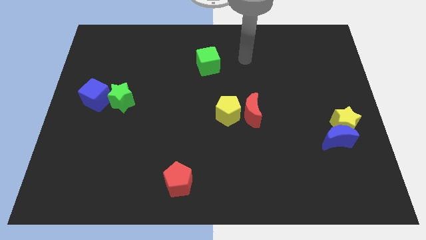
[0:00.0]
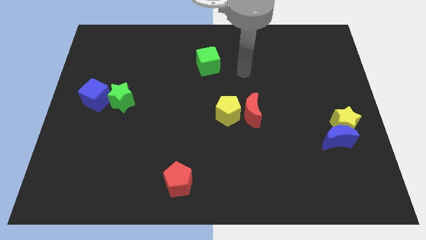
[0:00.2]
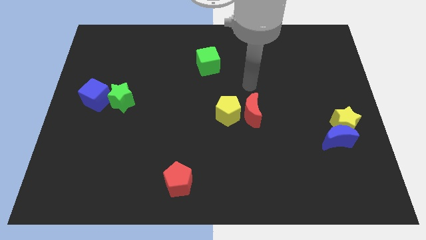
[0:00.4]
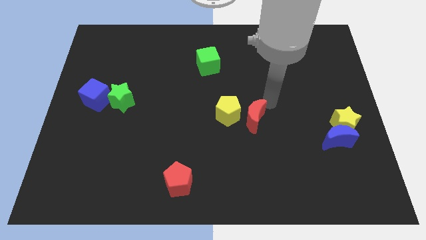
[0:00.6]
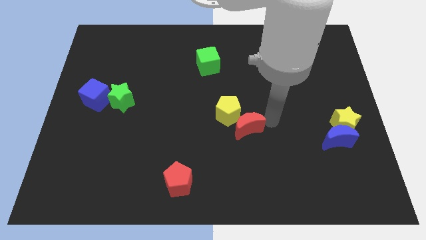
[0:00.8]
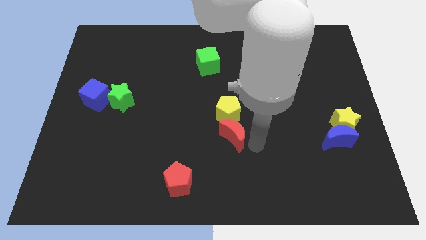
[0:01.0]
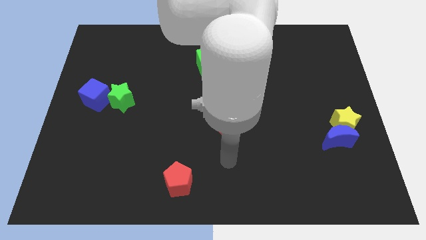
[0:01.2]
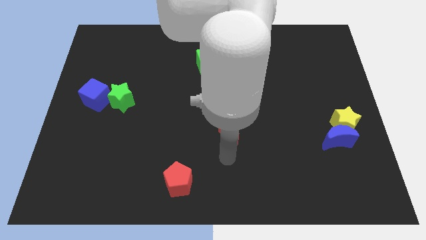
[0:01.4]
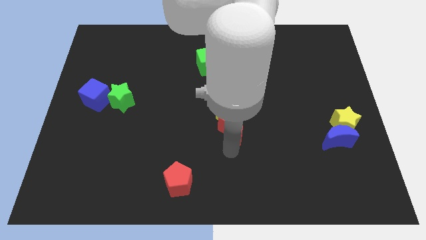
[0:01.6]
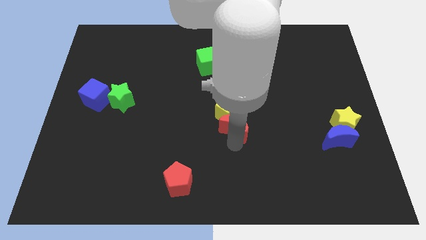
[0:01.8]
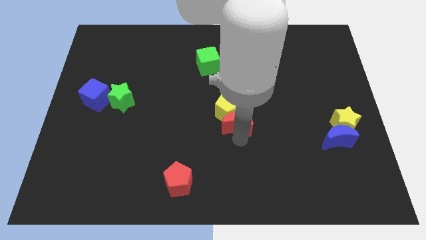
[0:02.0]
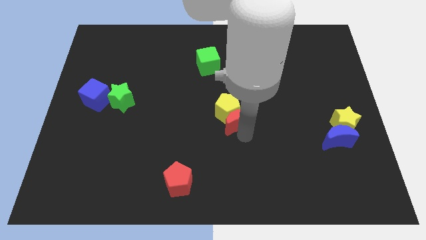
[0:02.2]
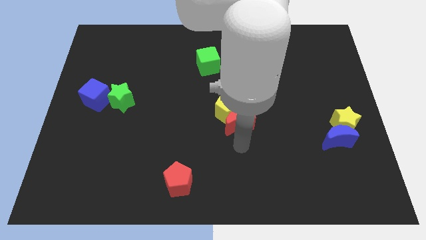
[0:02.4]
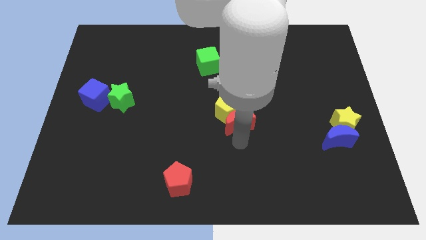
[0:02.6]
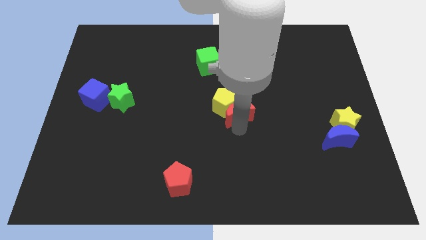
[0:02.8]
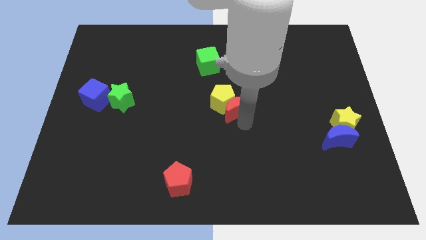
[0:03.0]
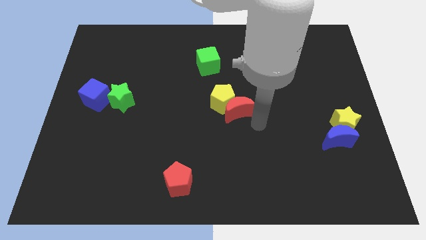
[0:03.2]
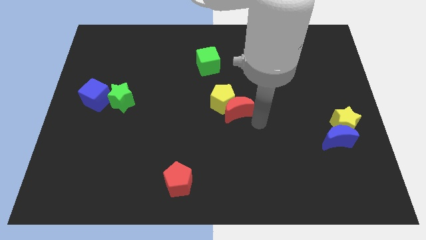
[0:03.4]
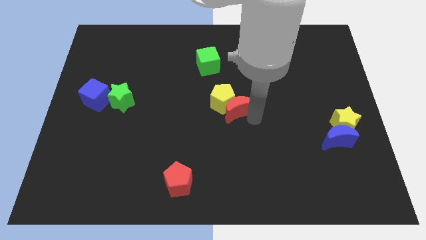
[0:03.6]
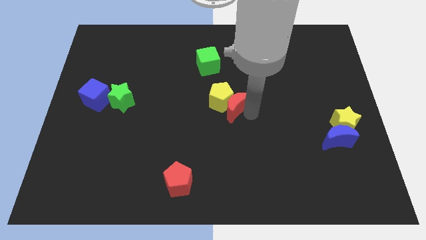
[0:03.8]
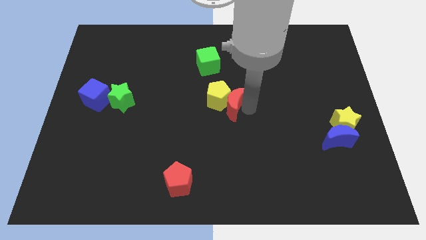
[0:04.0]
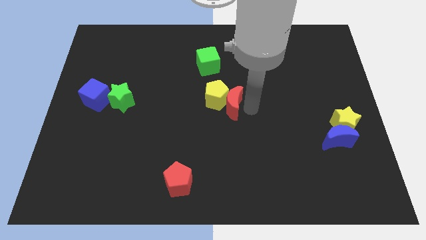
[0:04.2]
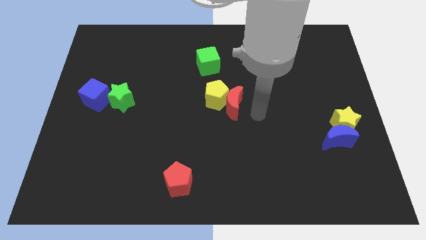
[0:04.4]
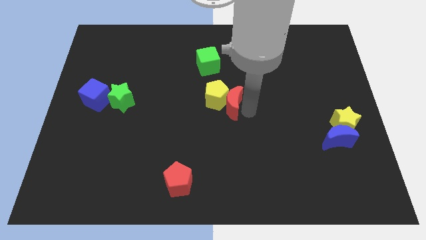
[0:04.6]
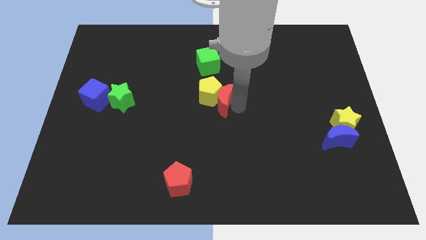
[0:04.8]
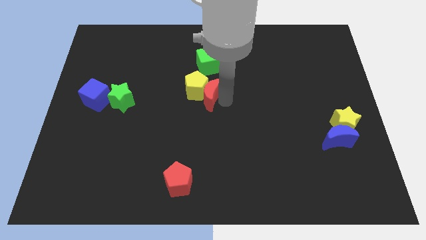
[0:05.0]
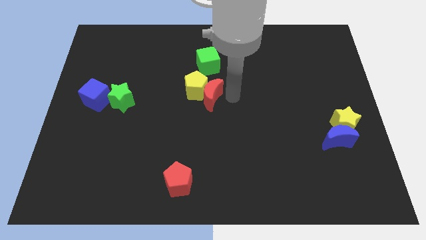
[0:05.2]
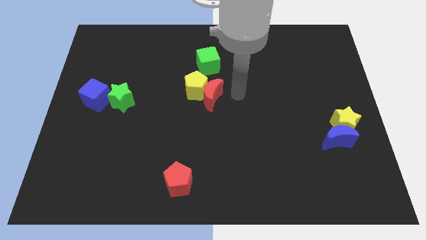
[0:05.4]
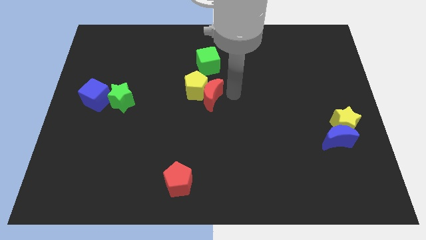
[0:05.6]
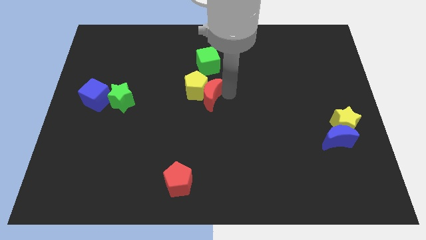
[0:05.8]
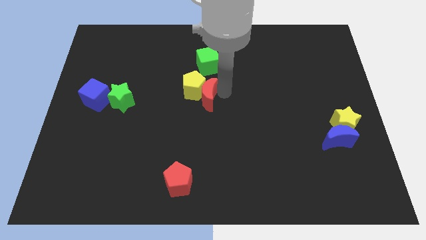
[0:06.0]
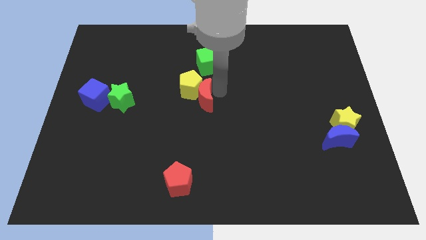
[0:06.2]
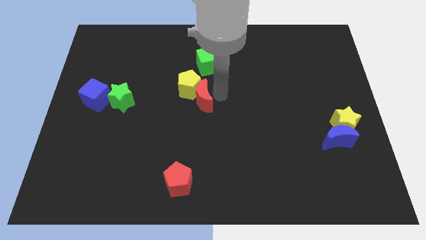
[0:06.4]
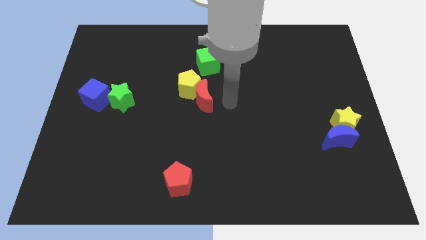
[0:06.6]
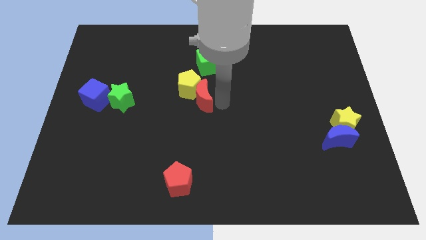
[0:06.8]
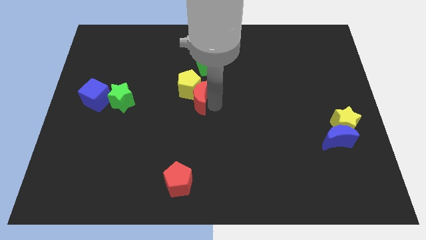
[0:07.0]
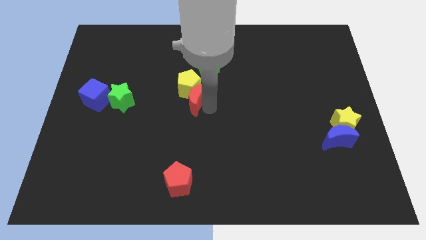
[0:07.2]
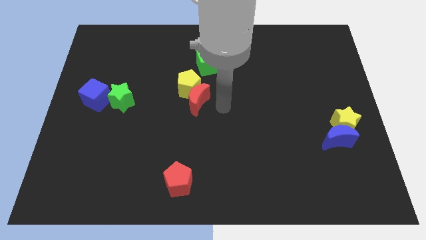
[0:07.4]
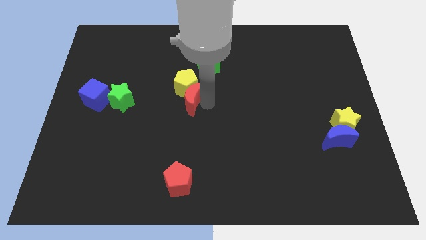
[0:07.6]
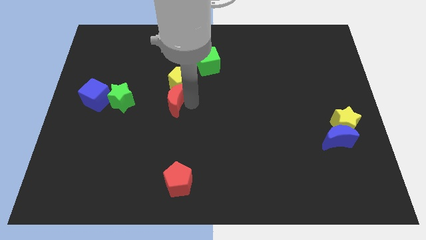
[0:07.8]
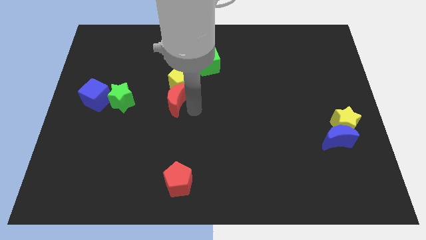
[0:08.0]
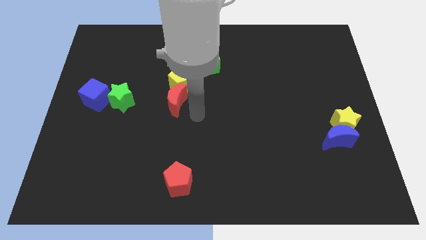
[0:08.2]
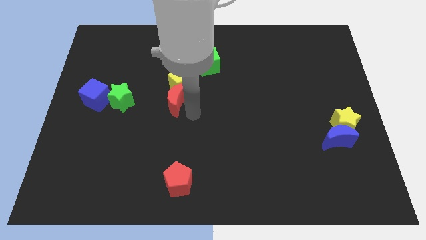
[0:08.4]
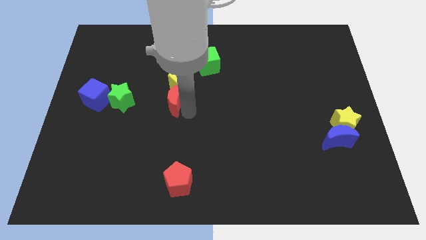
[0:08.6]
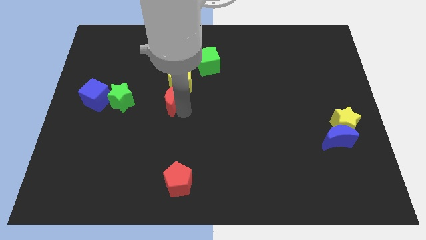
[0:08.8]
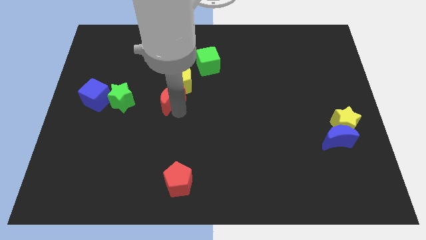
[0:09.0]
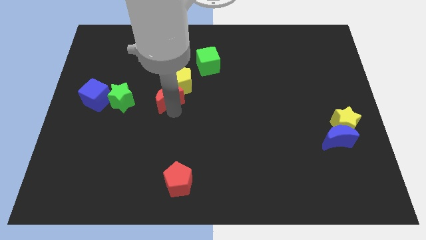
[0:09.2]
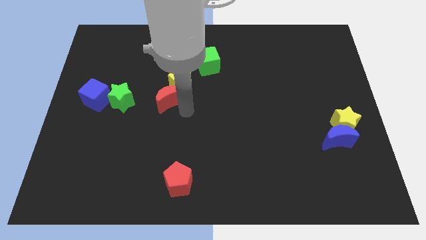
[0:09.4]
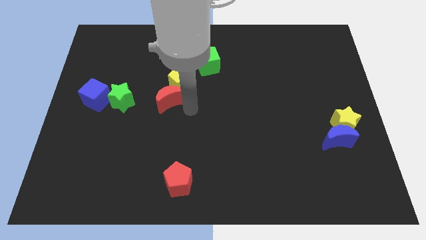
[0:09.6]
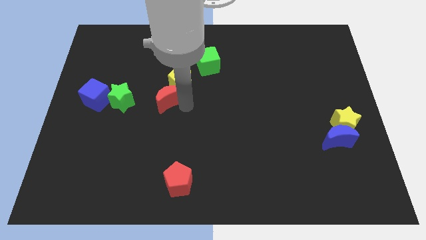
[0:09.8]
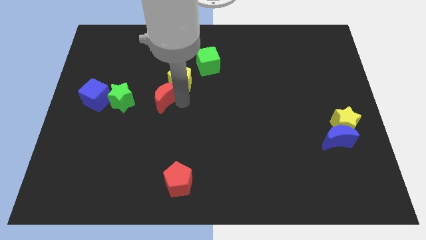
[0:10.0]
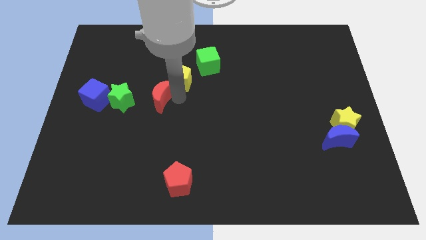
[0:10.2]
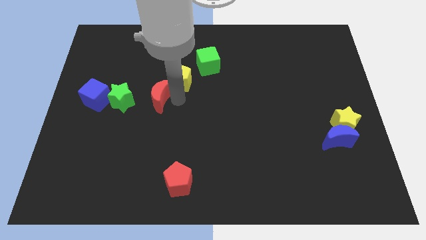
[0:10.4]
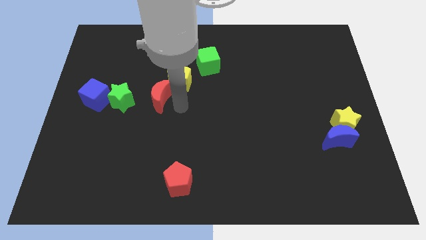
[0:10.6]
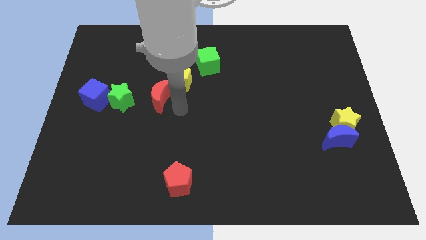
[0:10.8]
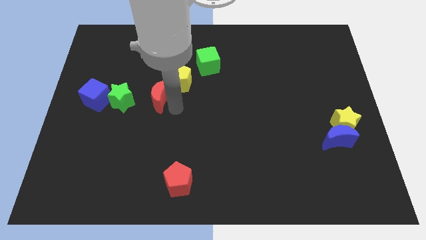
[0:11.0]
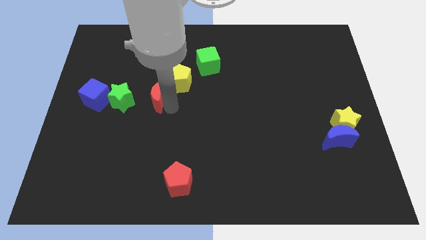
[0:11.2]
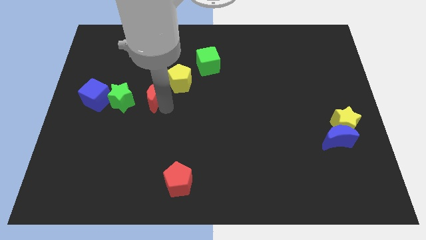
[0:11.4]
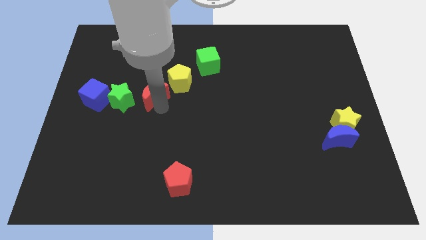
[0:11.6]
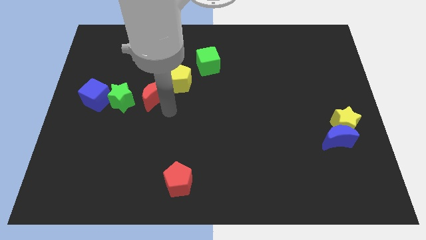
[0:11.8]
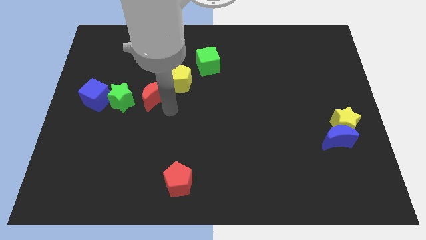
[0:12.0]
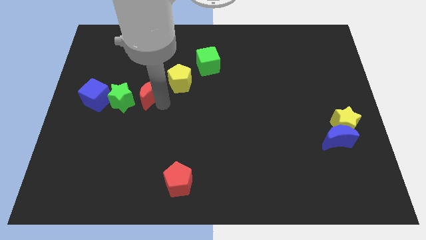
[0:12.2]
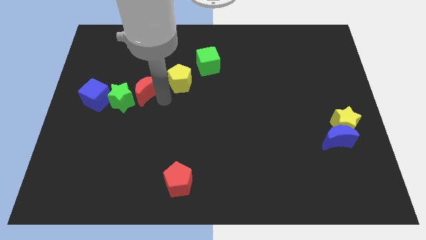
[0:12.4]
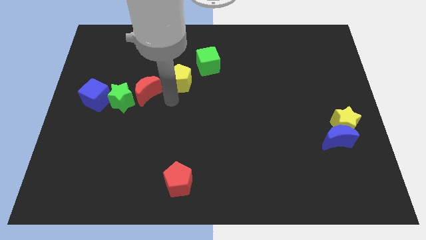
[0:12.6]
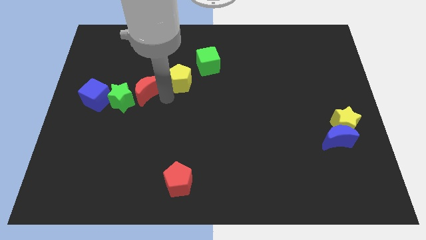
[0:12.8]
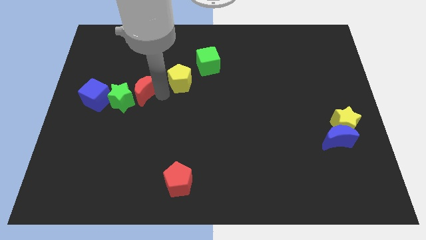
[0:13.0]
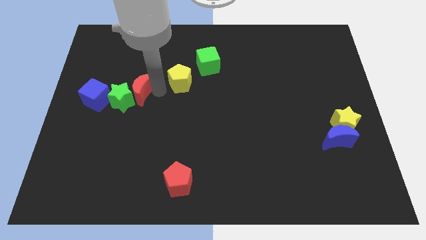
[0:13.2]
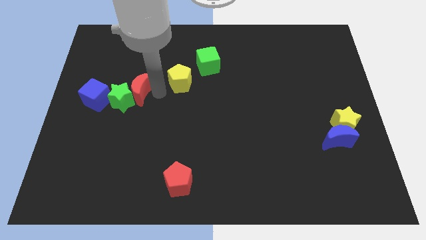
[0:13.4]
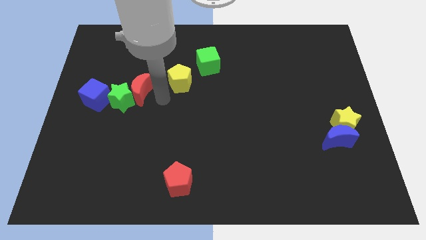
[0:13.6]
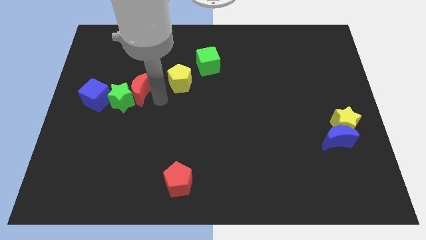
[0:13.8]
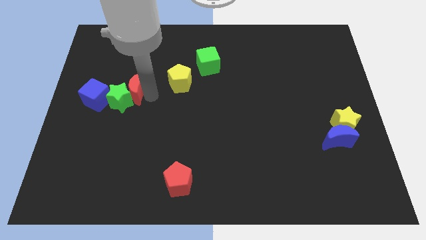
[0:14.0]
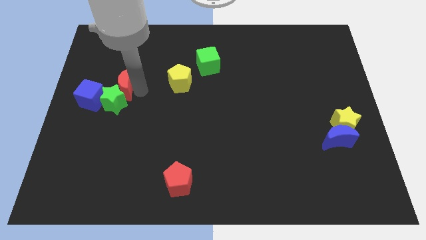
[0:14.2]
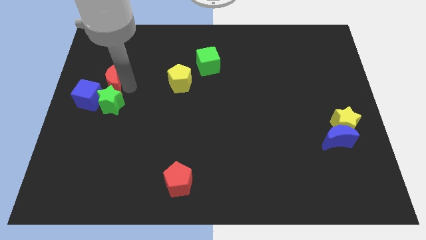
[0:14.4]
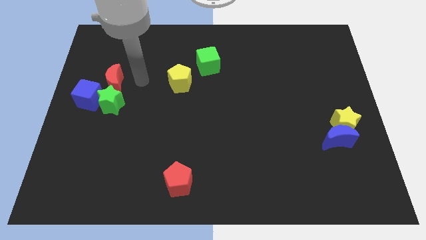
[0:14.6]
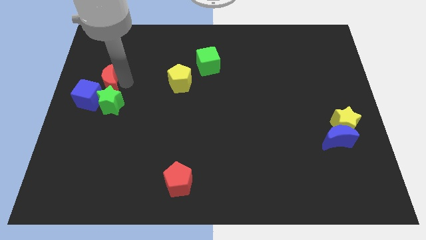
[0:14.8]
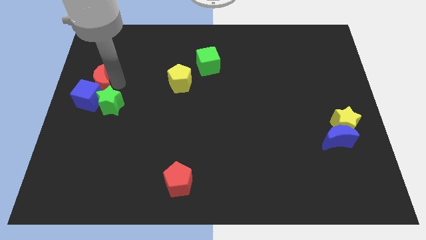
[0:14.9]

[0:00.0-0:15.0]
slide the red moon to the left side of the board
